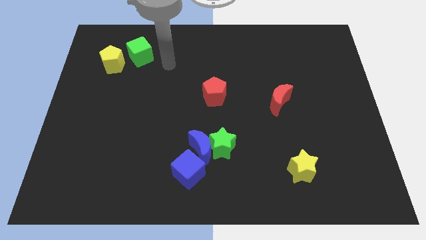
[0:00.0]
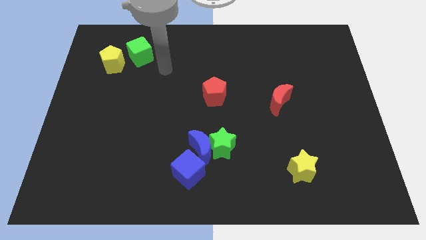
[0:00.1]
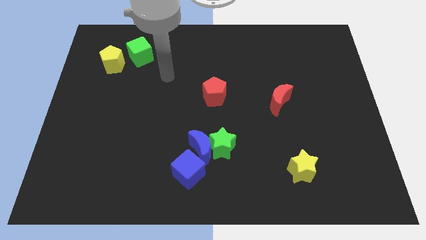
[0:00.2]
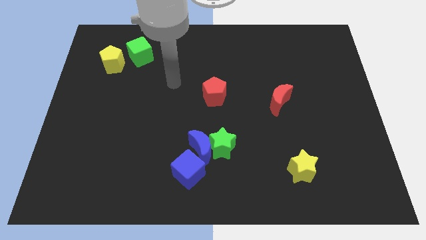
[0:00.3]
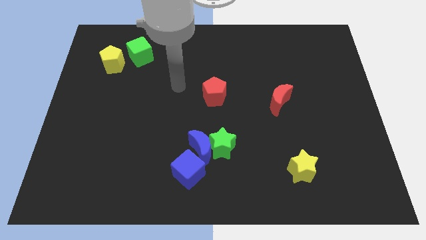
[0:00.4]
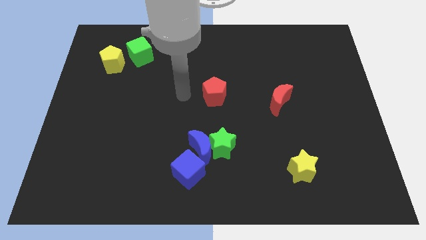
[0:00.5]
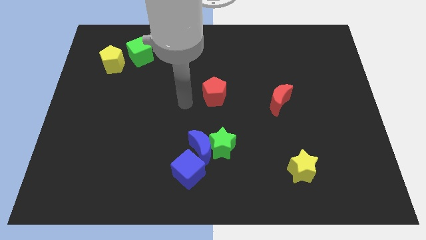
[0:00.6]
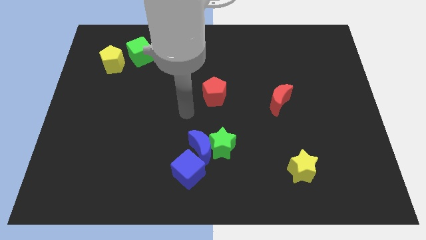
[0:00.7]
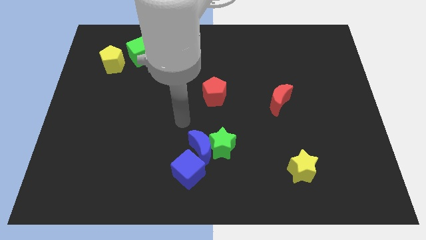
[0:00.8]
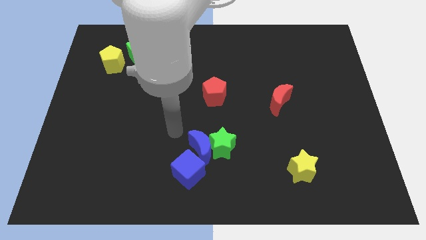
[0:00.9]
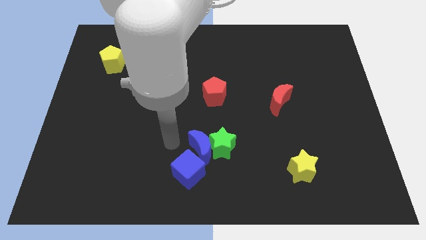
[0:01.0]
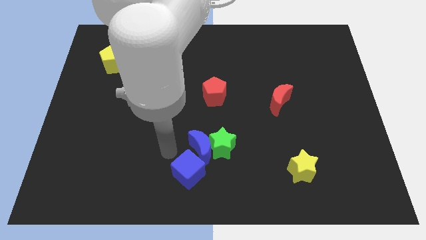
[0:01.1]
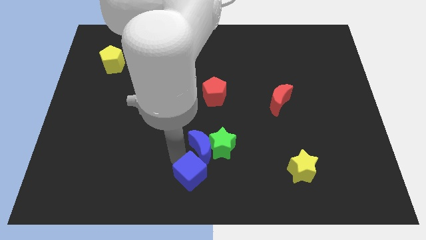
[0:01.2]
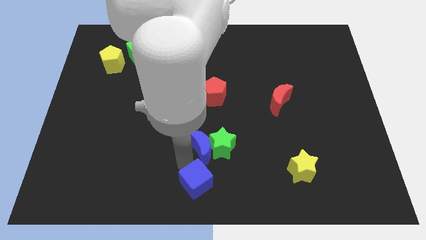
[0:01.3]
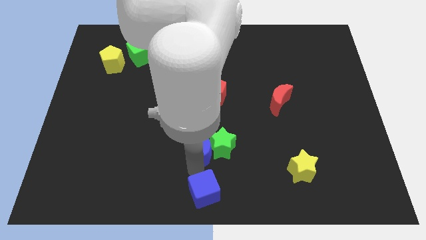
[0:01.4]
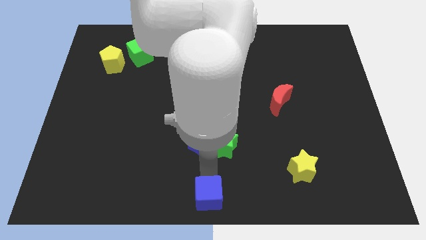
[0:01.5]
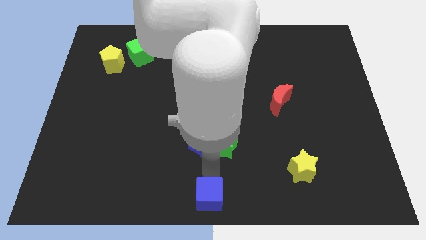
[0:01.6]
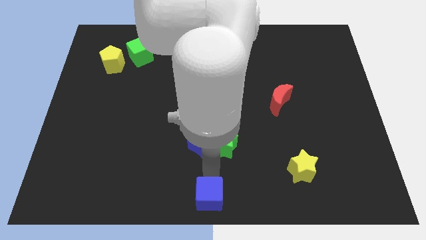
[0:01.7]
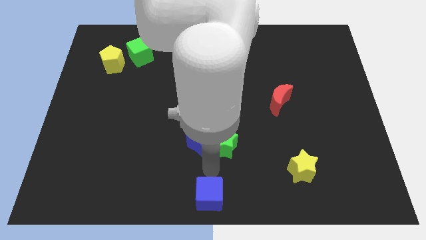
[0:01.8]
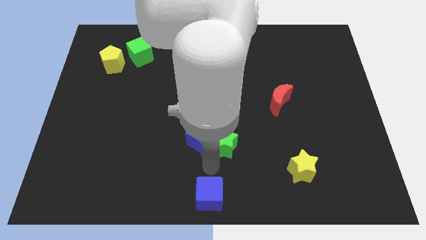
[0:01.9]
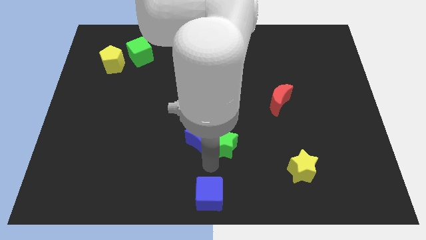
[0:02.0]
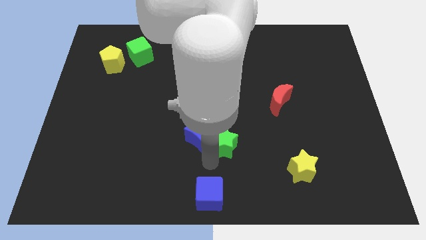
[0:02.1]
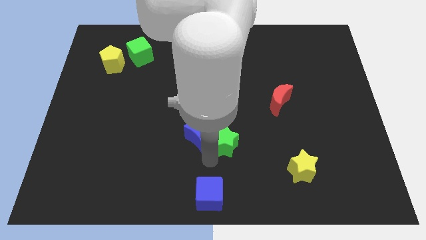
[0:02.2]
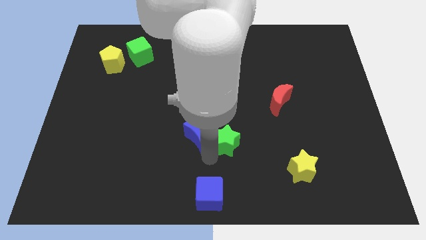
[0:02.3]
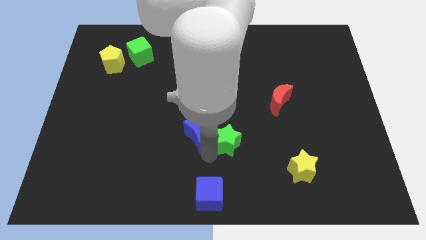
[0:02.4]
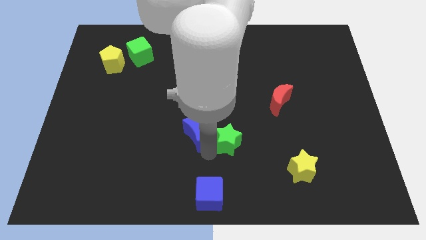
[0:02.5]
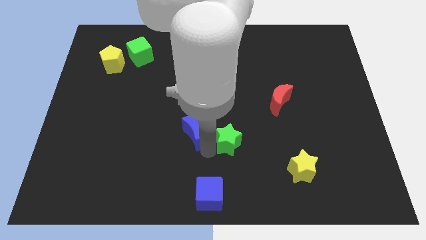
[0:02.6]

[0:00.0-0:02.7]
pull the blue moon apart from the green star and blue cube

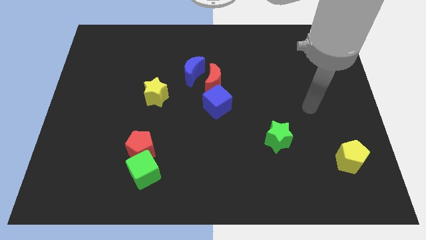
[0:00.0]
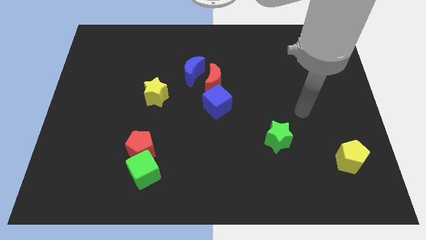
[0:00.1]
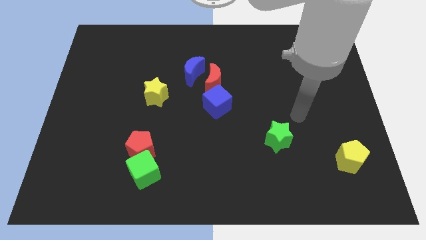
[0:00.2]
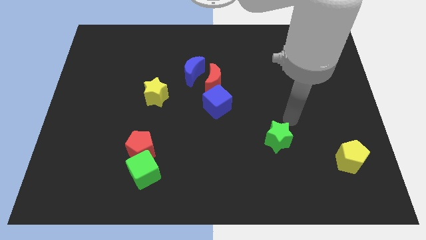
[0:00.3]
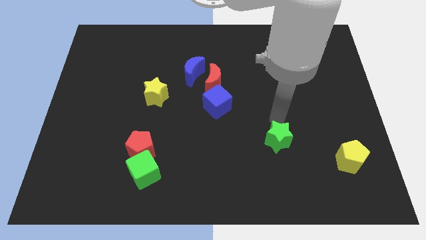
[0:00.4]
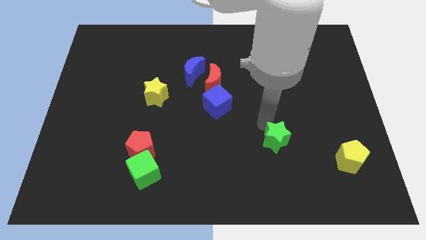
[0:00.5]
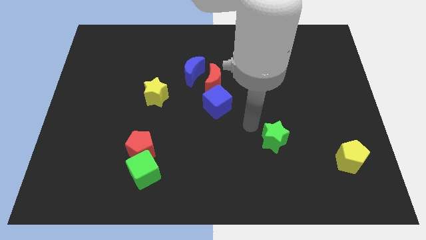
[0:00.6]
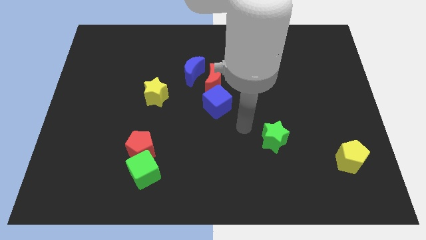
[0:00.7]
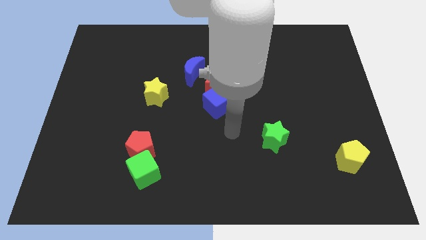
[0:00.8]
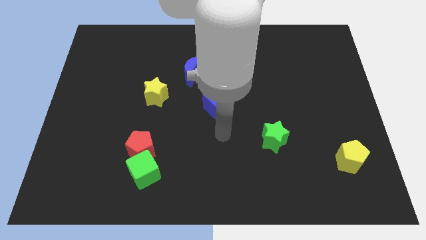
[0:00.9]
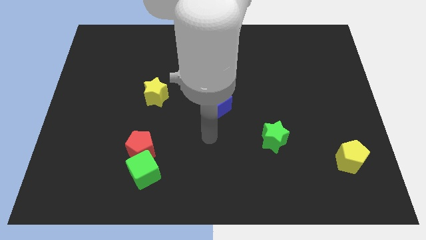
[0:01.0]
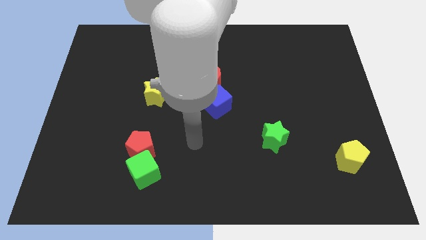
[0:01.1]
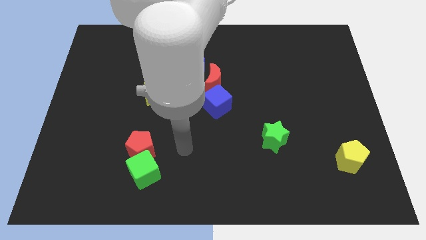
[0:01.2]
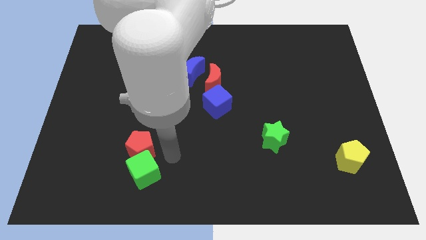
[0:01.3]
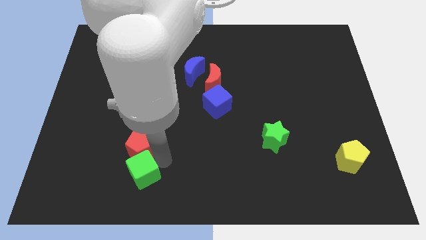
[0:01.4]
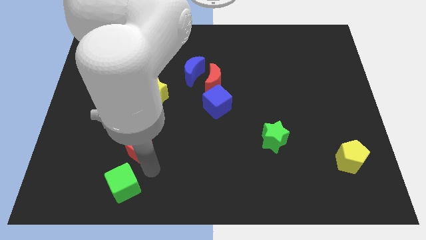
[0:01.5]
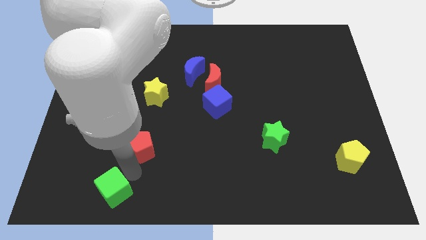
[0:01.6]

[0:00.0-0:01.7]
separate the red pentagon from the green cube

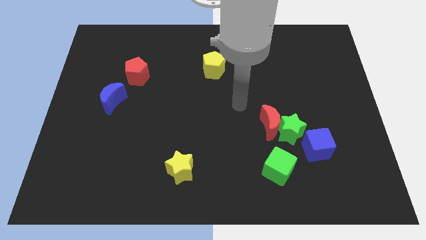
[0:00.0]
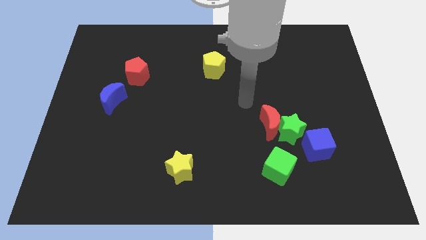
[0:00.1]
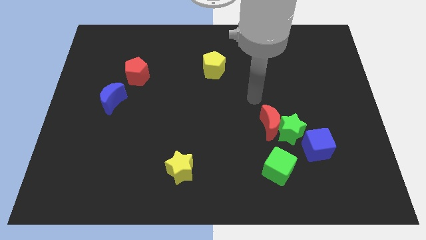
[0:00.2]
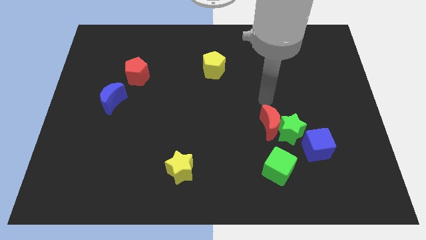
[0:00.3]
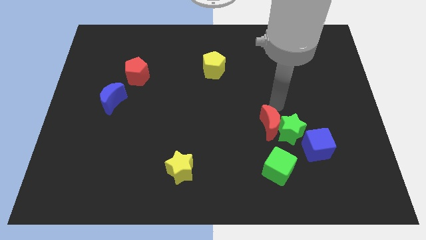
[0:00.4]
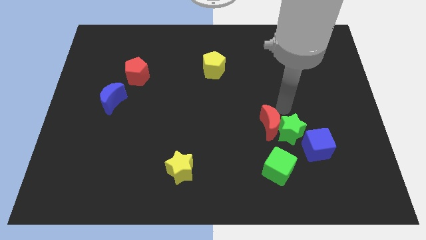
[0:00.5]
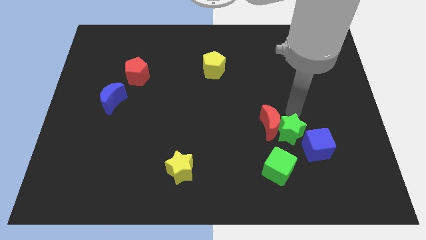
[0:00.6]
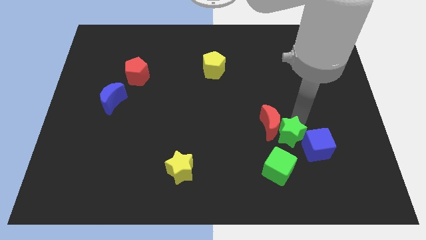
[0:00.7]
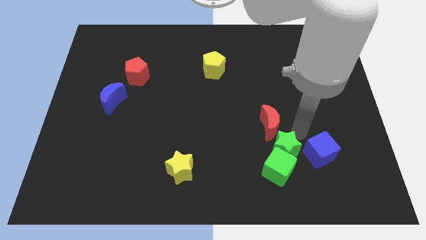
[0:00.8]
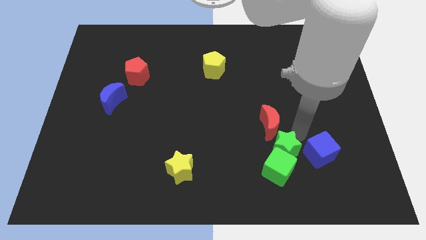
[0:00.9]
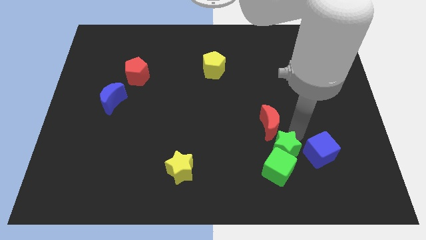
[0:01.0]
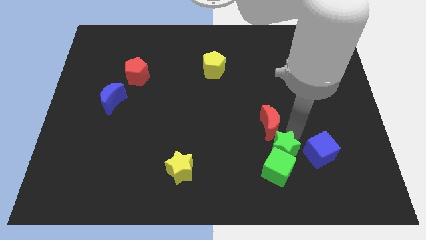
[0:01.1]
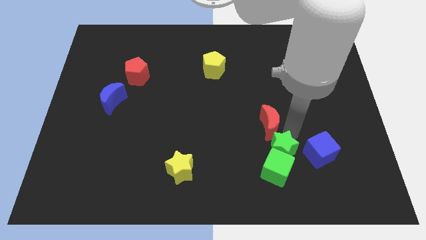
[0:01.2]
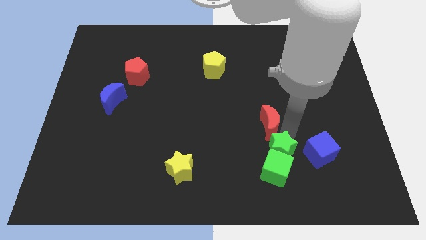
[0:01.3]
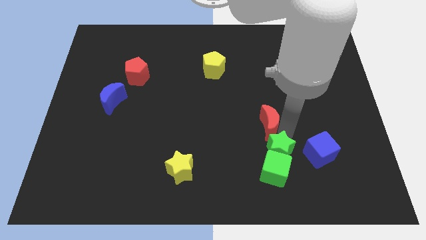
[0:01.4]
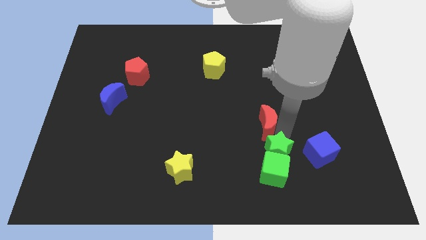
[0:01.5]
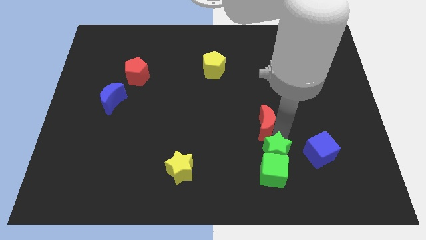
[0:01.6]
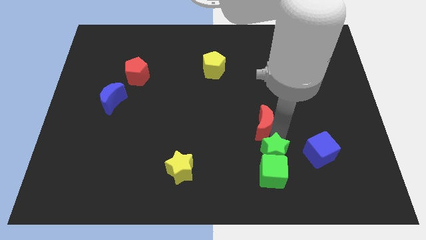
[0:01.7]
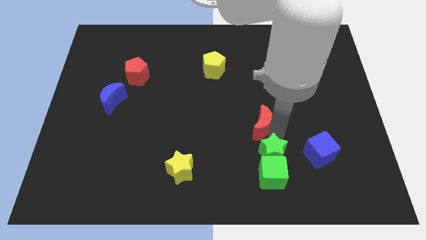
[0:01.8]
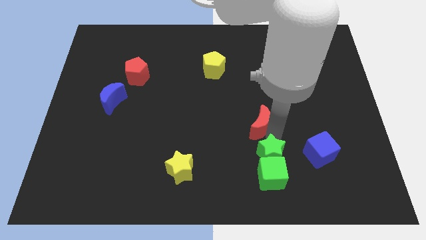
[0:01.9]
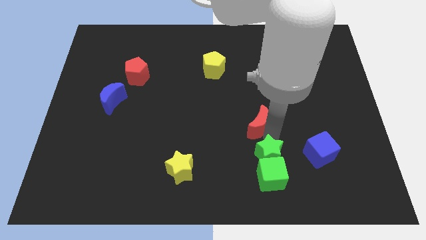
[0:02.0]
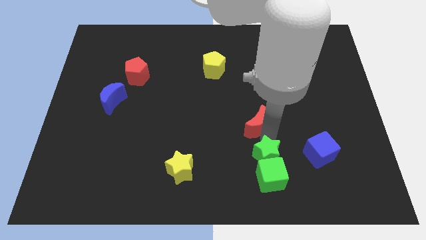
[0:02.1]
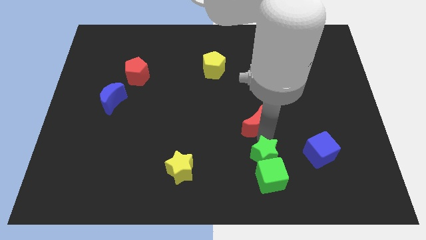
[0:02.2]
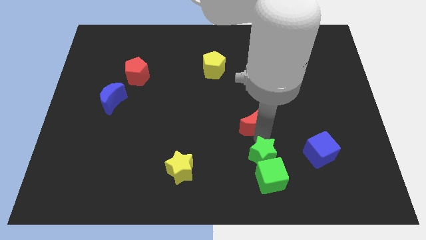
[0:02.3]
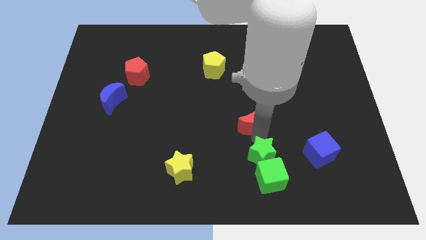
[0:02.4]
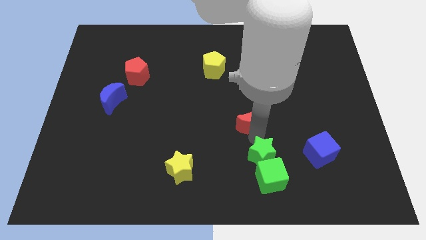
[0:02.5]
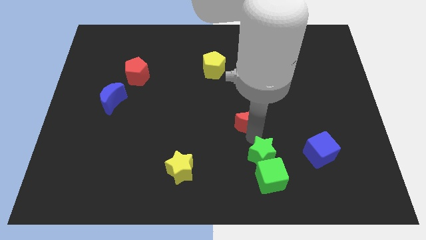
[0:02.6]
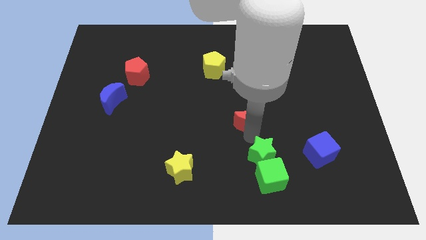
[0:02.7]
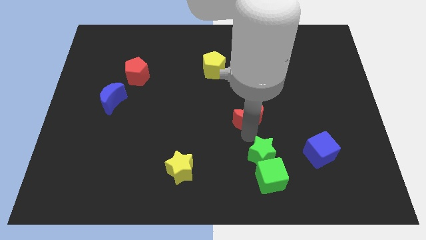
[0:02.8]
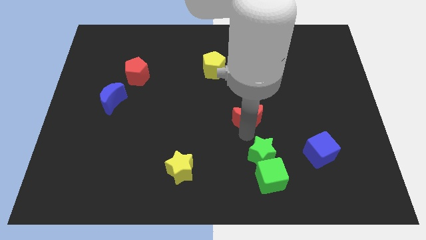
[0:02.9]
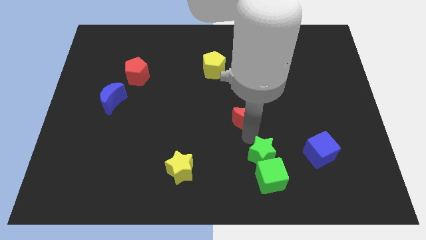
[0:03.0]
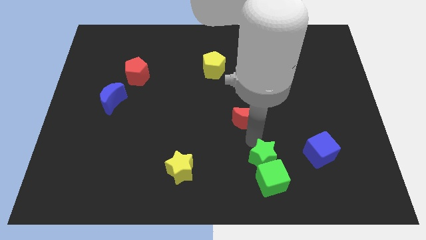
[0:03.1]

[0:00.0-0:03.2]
pull the red moon apart from the green star

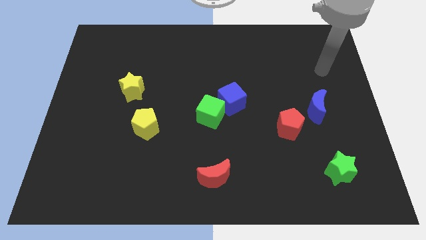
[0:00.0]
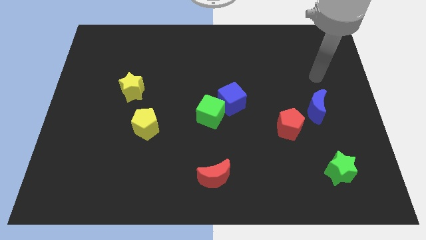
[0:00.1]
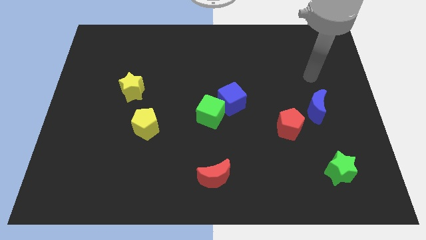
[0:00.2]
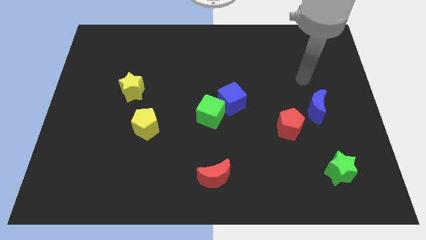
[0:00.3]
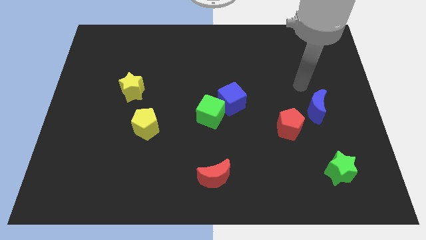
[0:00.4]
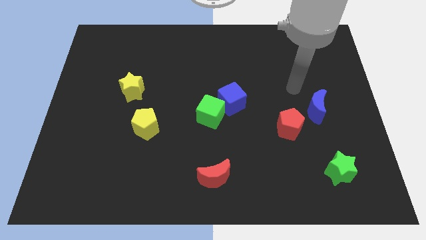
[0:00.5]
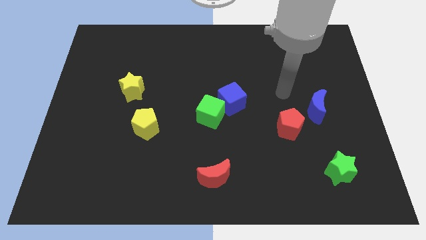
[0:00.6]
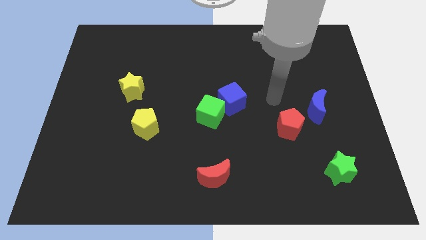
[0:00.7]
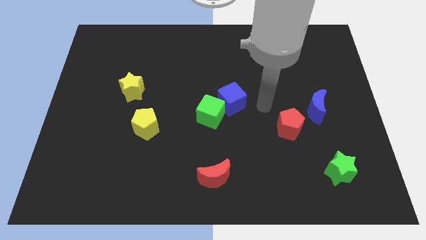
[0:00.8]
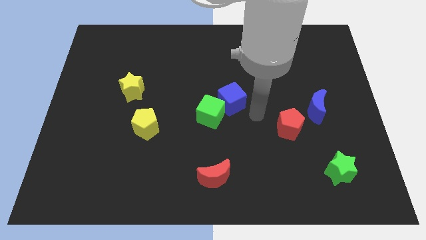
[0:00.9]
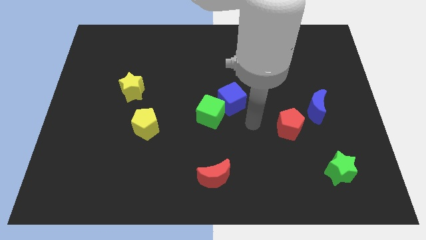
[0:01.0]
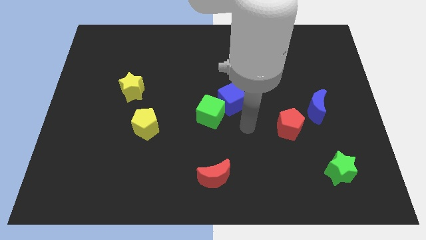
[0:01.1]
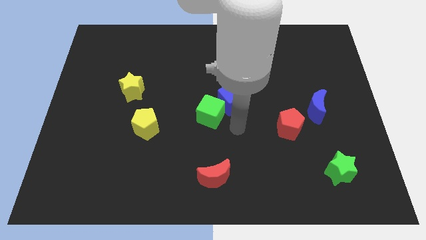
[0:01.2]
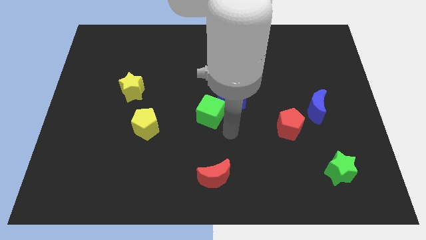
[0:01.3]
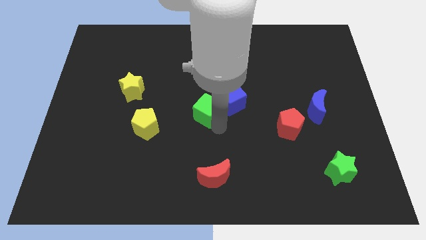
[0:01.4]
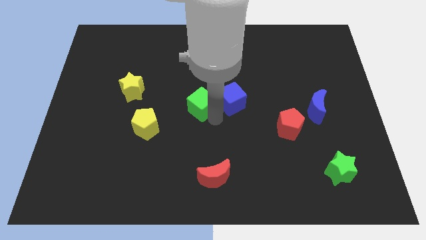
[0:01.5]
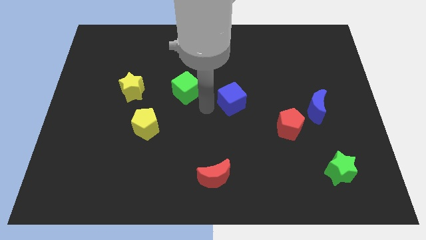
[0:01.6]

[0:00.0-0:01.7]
separate the blue cube from the green cube
